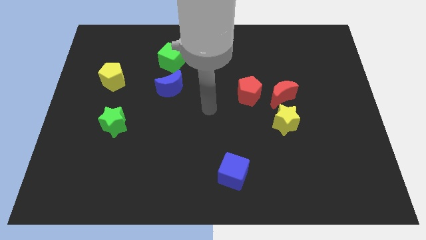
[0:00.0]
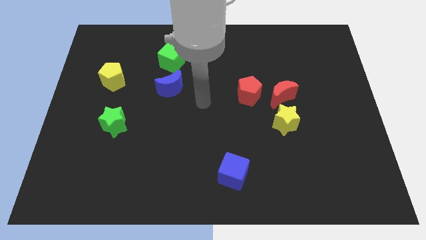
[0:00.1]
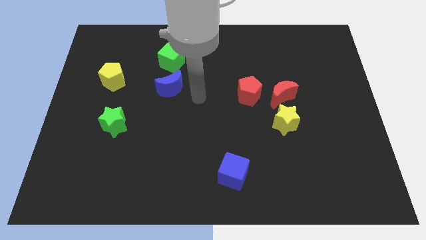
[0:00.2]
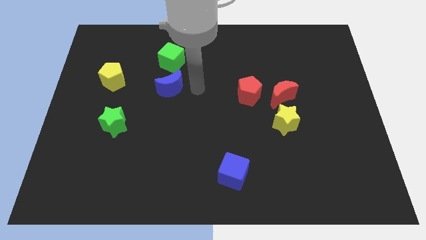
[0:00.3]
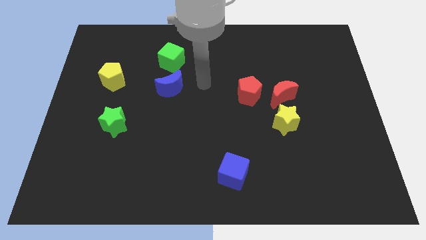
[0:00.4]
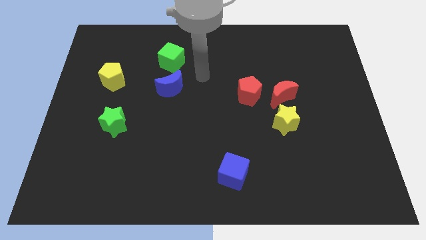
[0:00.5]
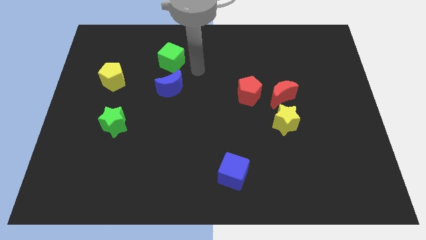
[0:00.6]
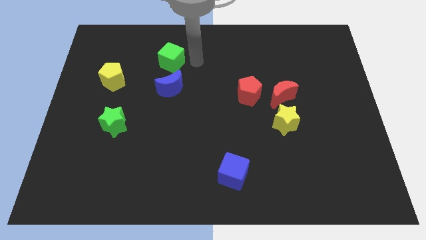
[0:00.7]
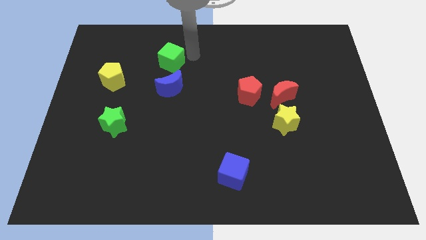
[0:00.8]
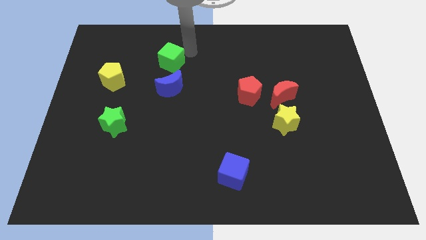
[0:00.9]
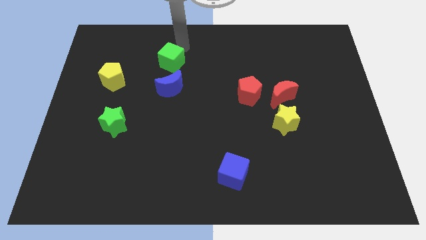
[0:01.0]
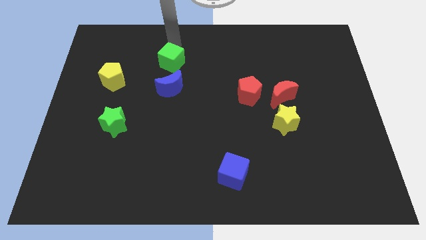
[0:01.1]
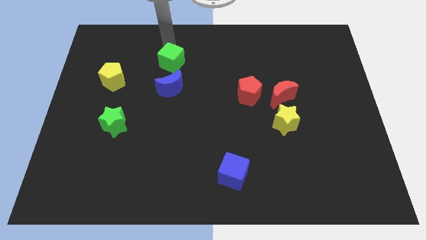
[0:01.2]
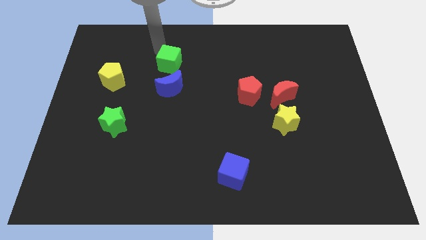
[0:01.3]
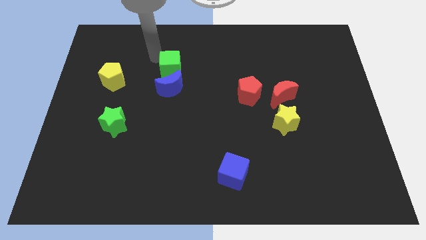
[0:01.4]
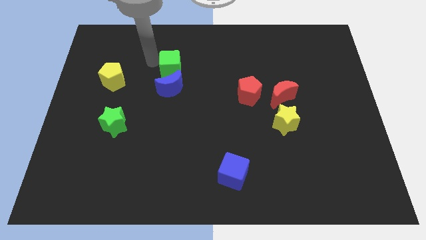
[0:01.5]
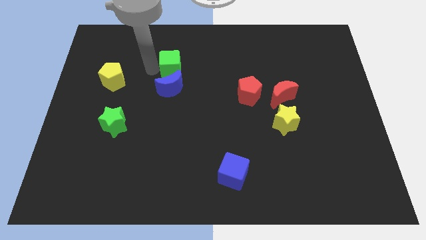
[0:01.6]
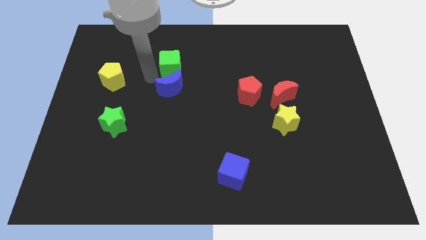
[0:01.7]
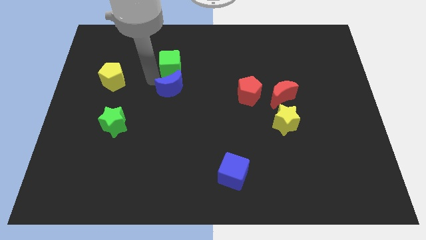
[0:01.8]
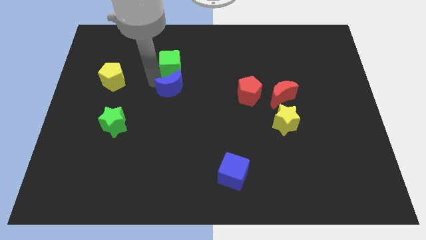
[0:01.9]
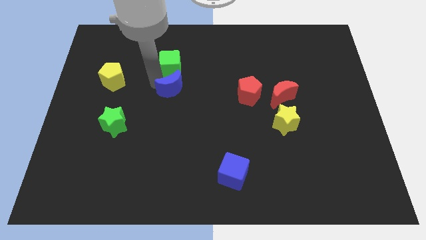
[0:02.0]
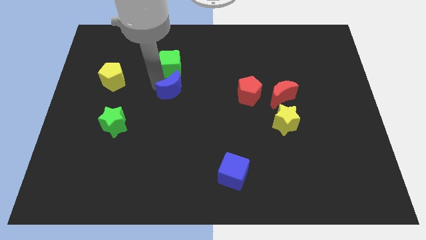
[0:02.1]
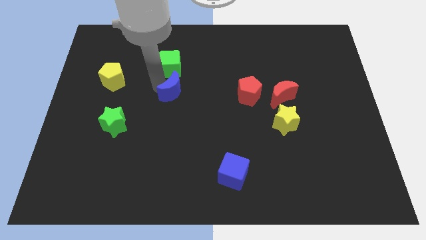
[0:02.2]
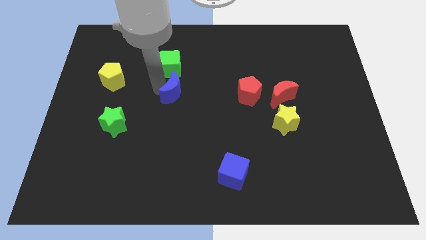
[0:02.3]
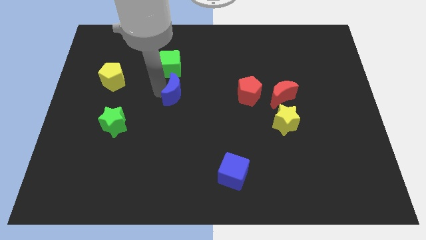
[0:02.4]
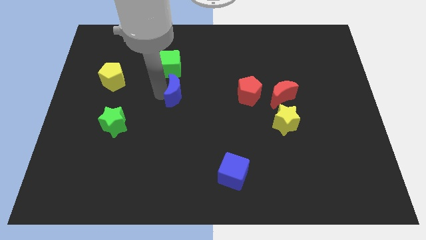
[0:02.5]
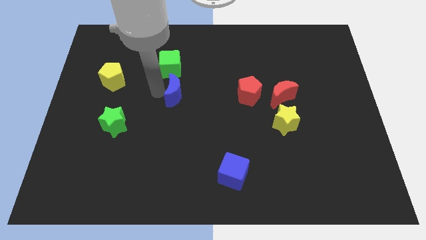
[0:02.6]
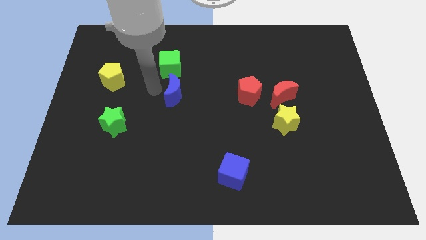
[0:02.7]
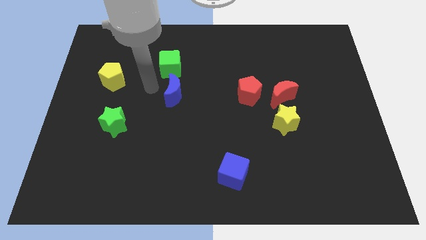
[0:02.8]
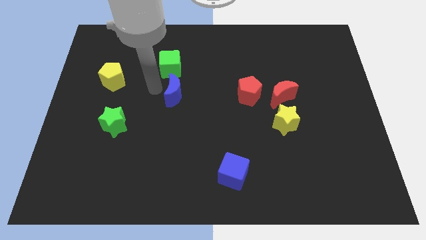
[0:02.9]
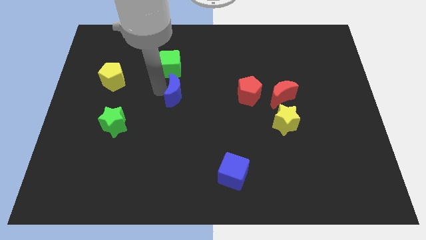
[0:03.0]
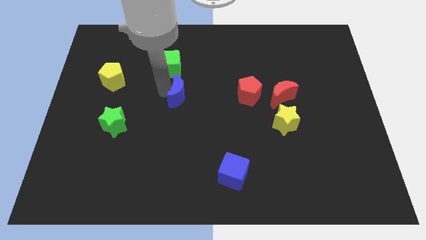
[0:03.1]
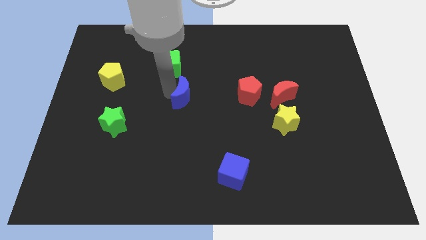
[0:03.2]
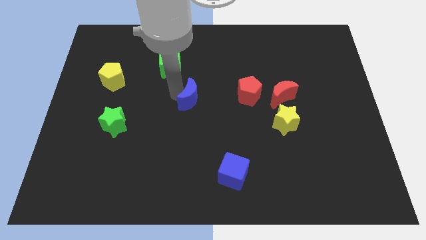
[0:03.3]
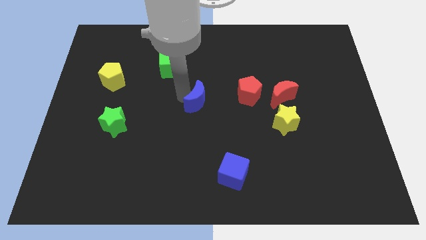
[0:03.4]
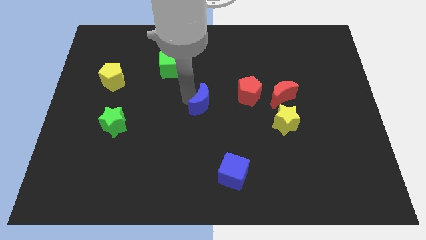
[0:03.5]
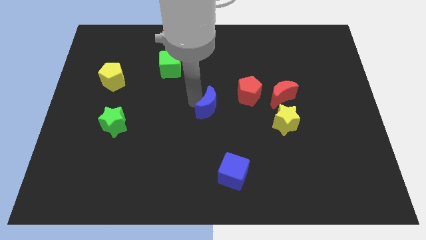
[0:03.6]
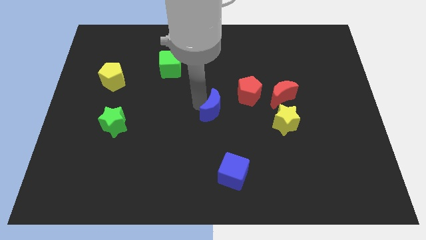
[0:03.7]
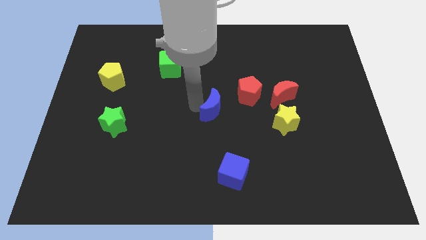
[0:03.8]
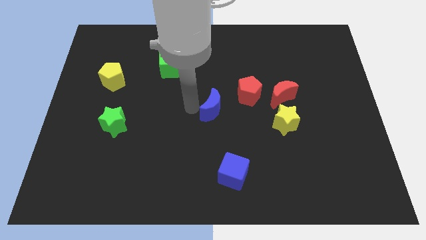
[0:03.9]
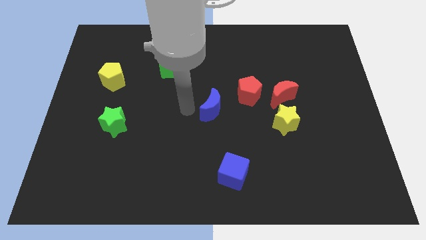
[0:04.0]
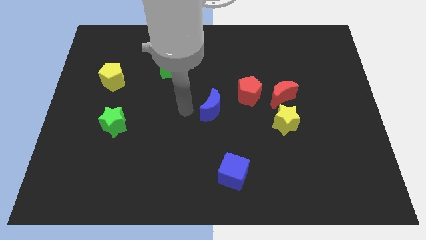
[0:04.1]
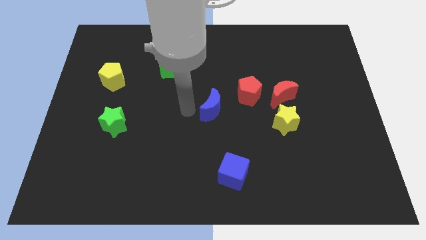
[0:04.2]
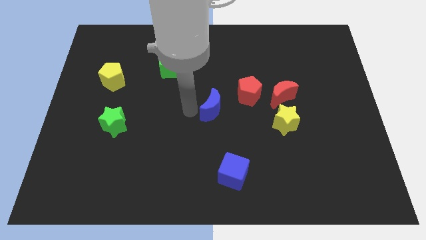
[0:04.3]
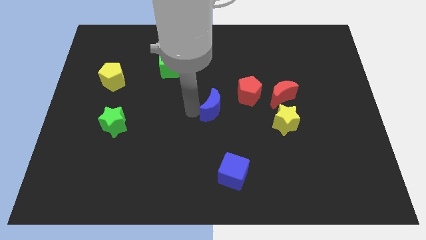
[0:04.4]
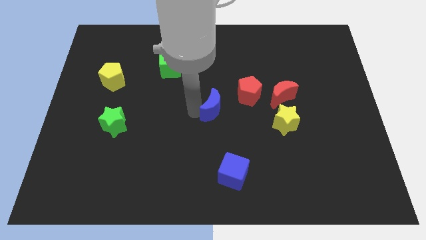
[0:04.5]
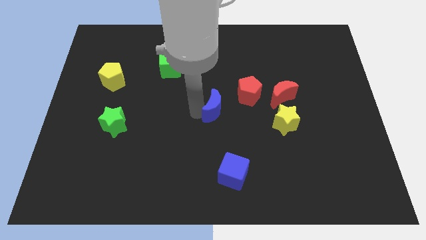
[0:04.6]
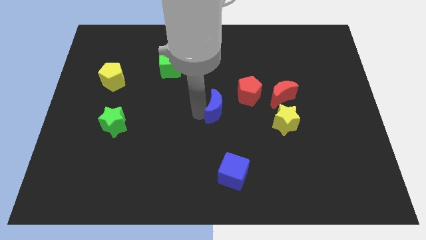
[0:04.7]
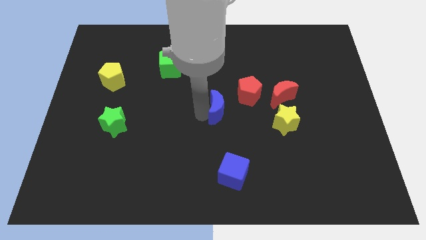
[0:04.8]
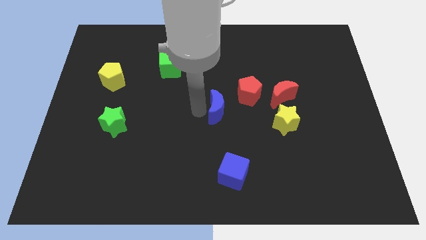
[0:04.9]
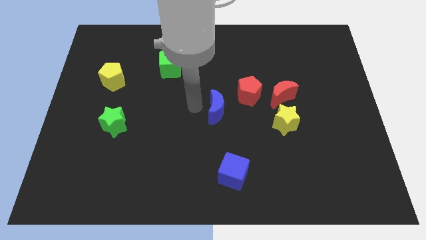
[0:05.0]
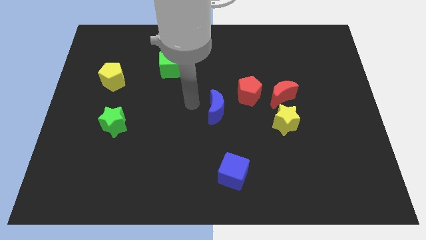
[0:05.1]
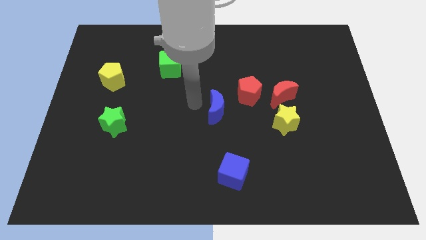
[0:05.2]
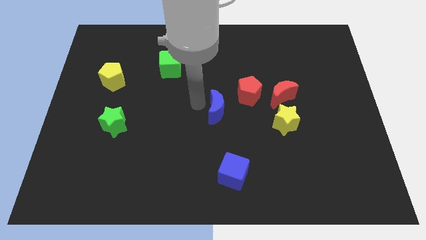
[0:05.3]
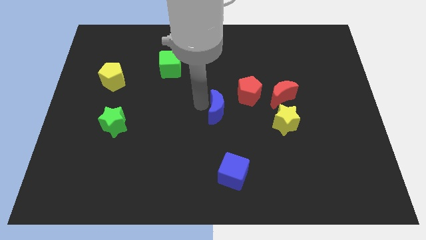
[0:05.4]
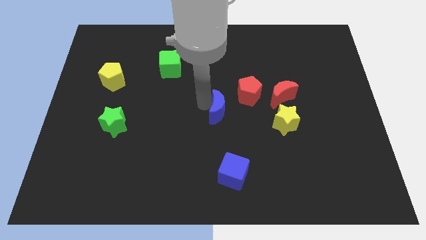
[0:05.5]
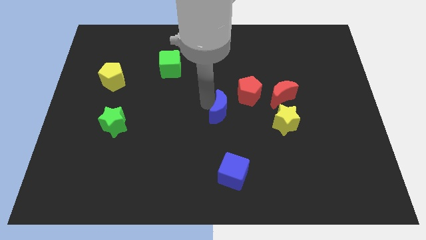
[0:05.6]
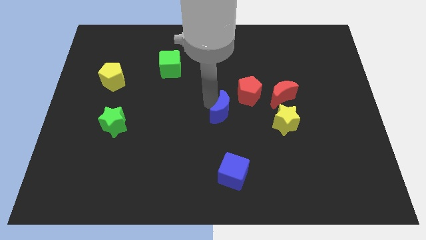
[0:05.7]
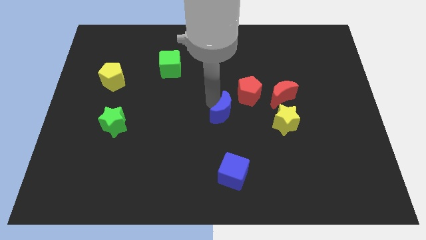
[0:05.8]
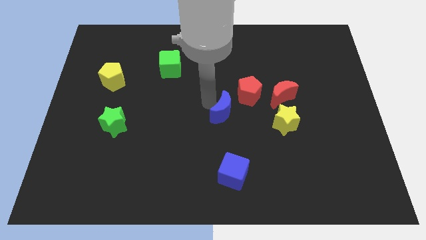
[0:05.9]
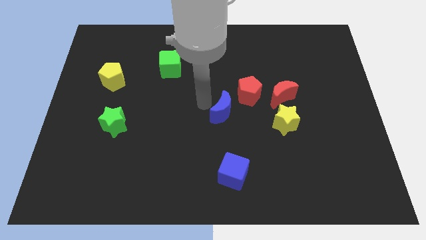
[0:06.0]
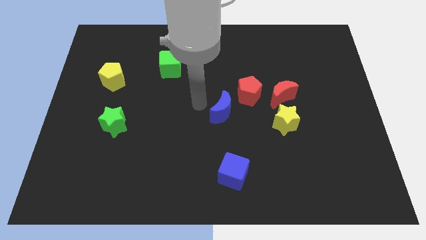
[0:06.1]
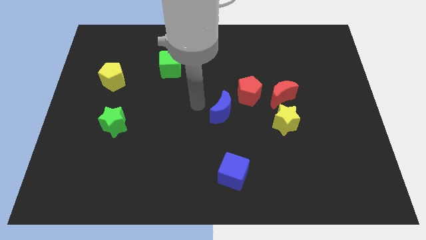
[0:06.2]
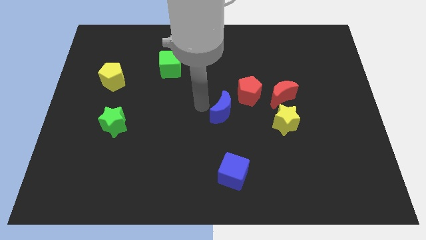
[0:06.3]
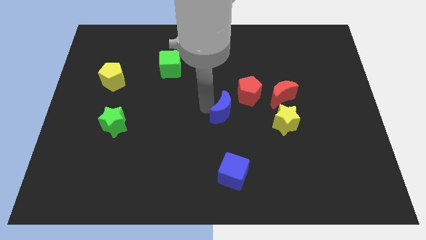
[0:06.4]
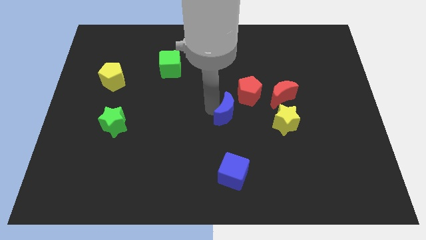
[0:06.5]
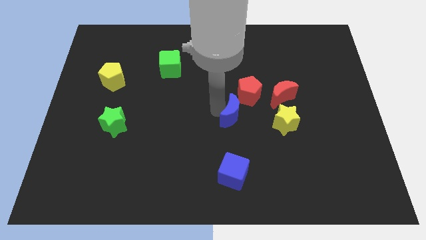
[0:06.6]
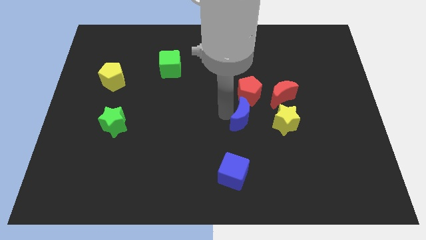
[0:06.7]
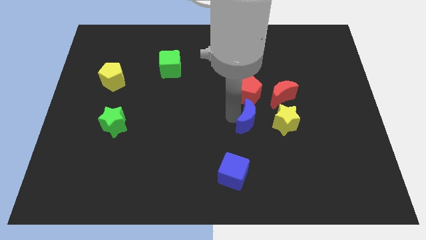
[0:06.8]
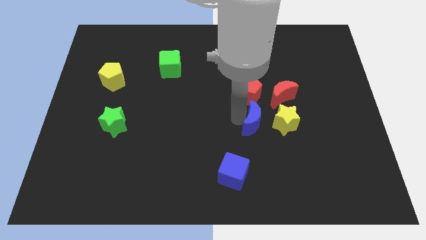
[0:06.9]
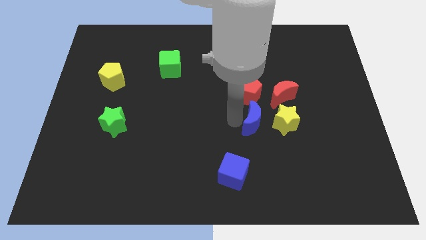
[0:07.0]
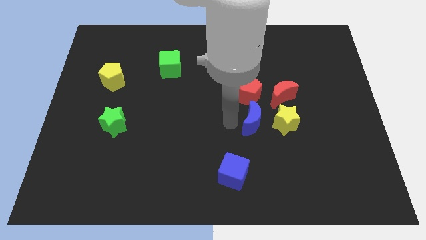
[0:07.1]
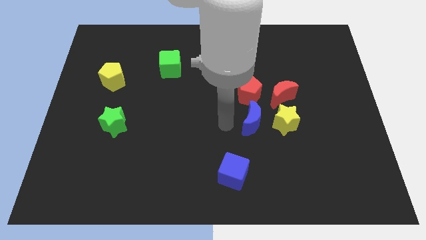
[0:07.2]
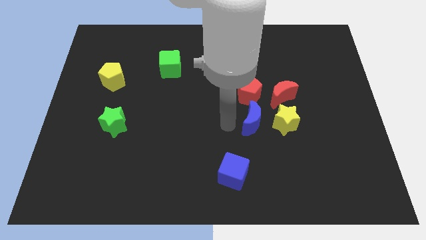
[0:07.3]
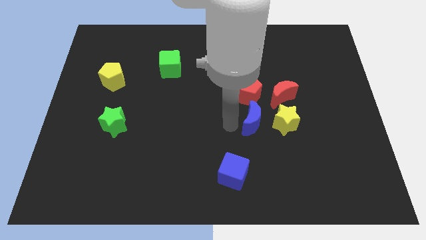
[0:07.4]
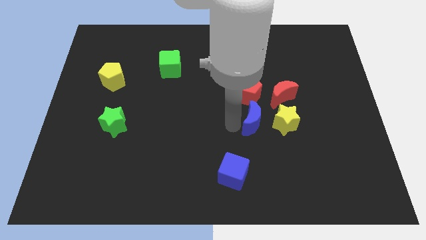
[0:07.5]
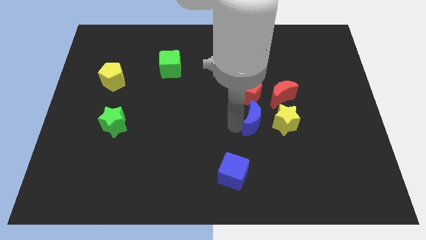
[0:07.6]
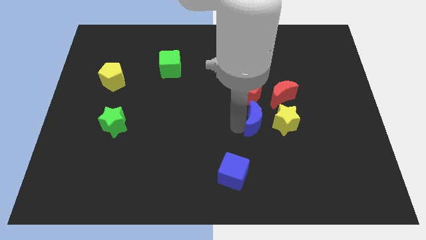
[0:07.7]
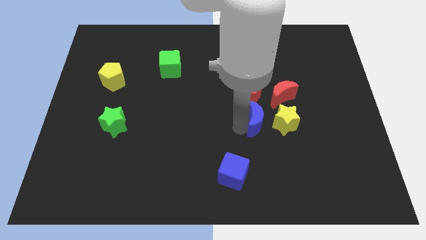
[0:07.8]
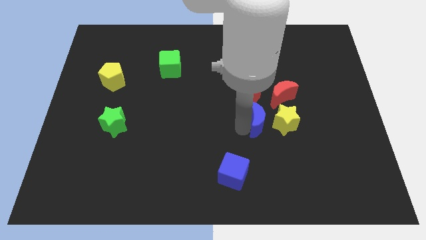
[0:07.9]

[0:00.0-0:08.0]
put the blue moon close to the yellow star
